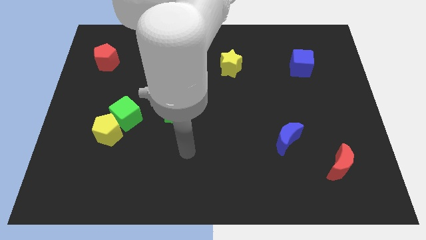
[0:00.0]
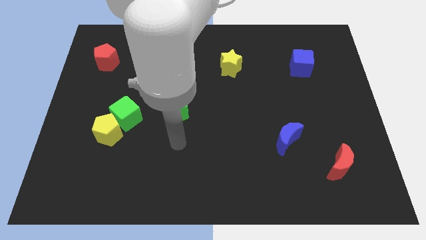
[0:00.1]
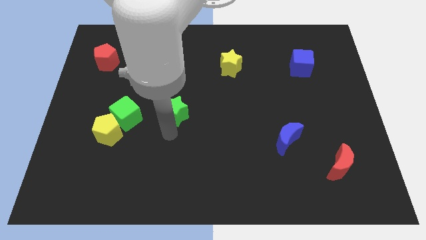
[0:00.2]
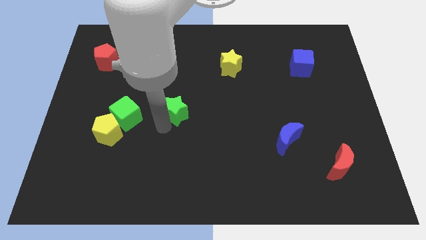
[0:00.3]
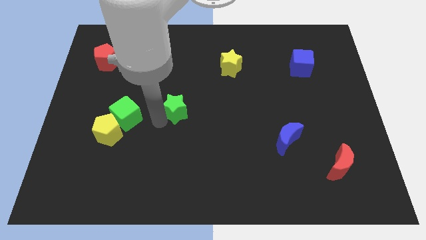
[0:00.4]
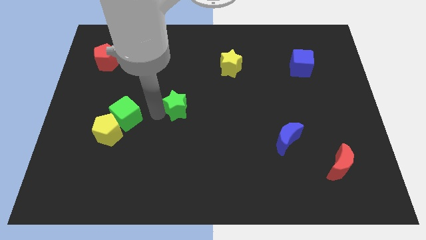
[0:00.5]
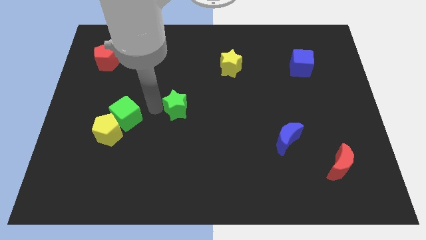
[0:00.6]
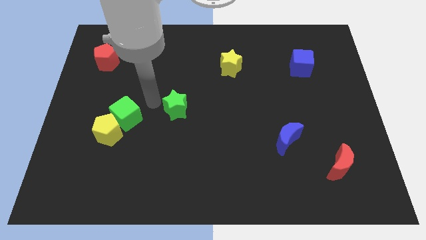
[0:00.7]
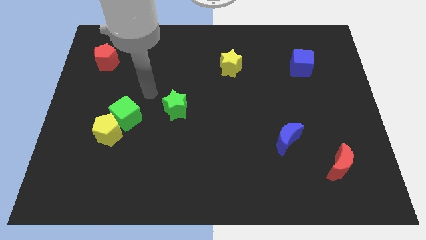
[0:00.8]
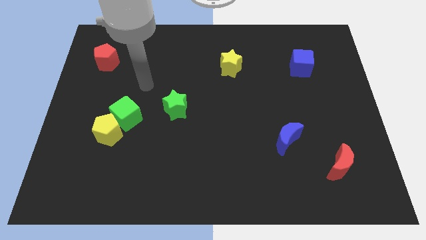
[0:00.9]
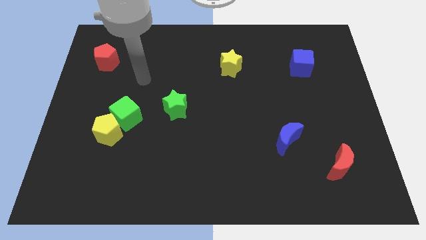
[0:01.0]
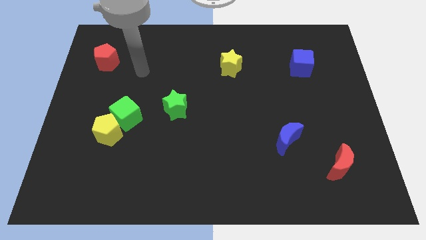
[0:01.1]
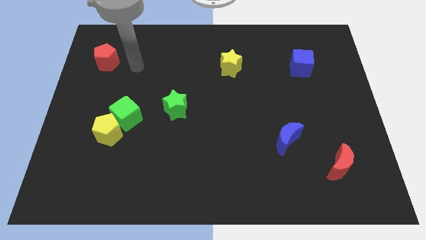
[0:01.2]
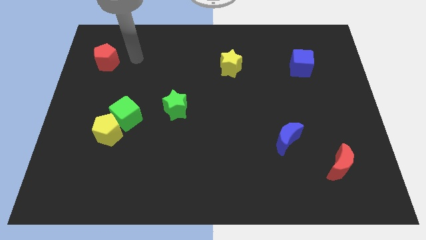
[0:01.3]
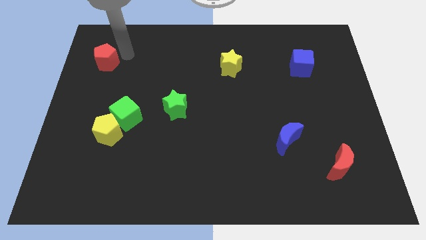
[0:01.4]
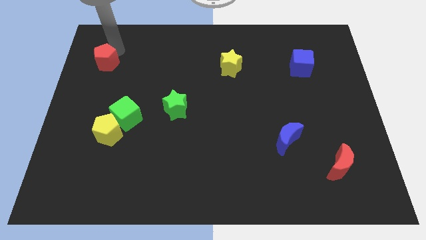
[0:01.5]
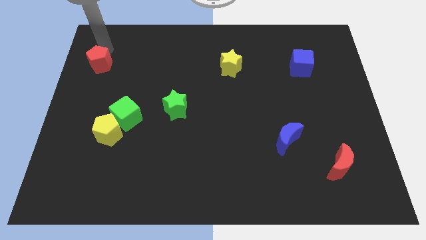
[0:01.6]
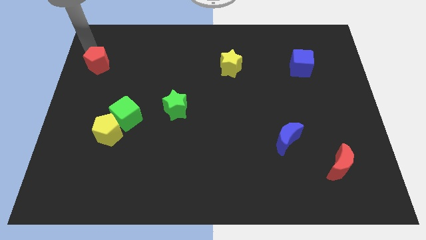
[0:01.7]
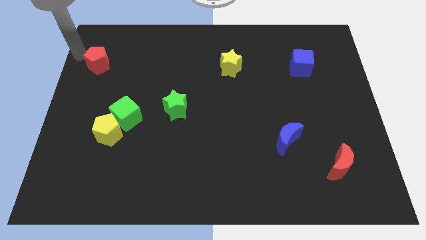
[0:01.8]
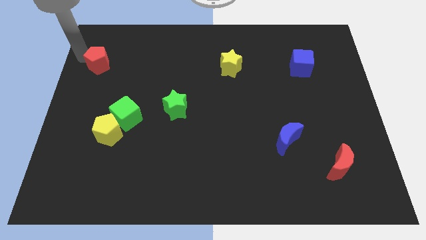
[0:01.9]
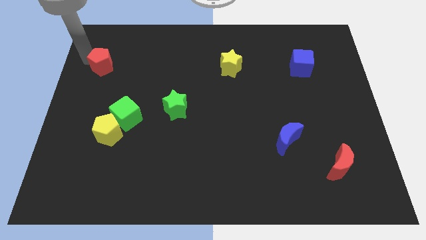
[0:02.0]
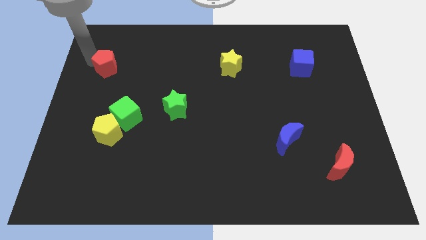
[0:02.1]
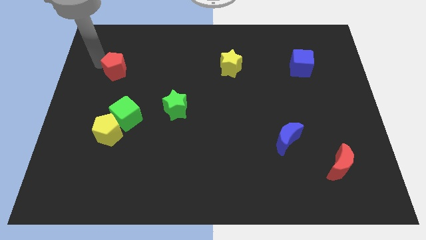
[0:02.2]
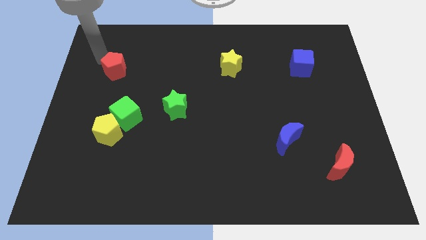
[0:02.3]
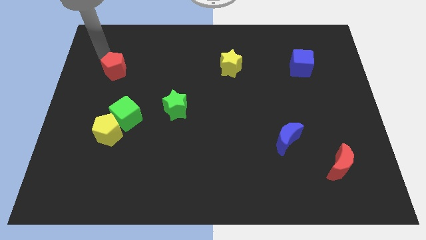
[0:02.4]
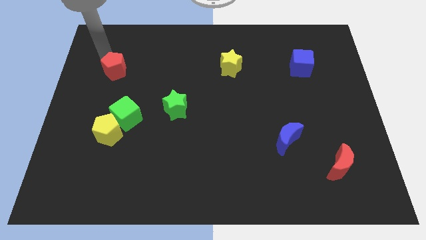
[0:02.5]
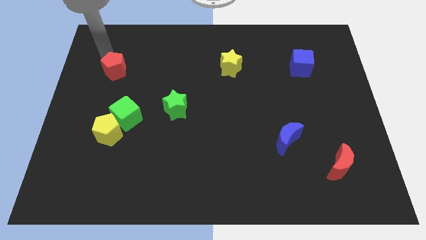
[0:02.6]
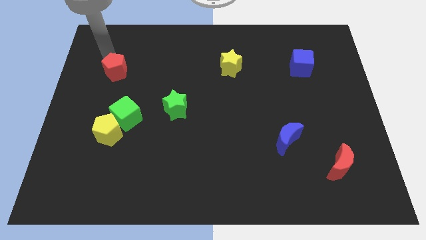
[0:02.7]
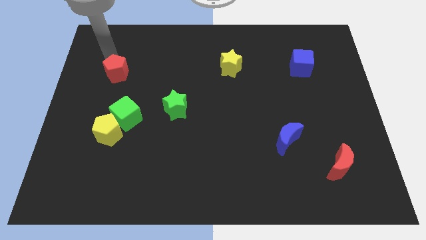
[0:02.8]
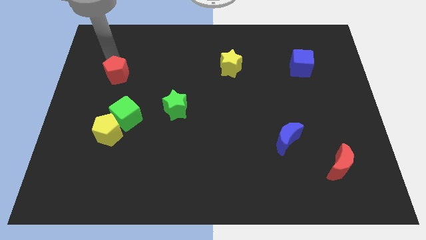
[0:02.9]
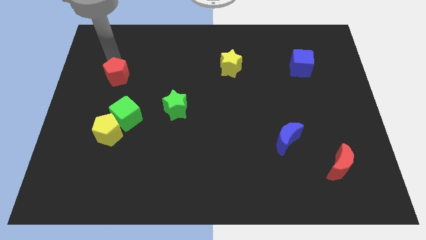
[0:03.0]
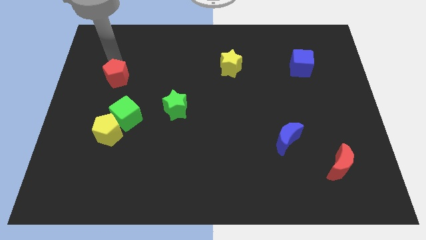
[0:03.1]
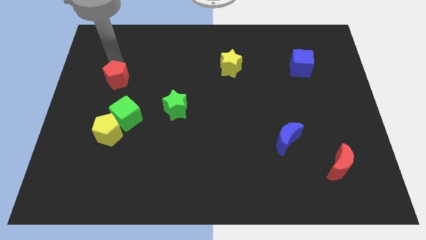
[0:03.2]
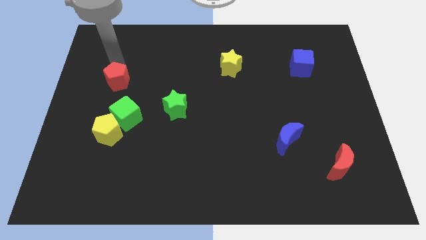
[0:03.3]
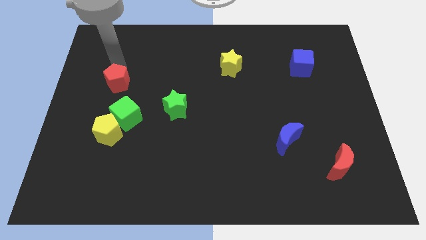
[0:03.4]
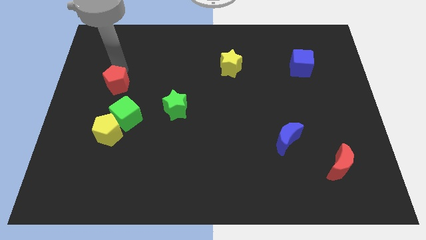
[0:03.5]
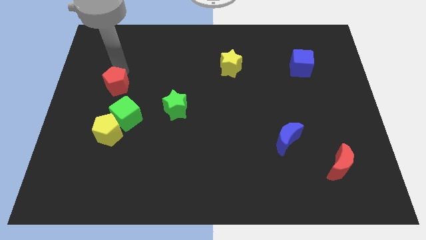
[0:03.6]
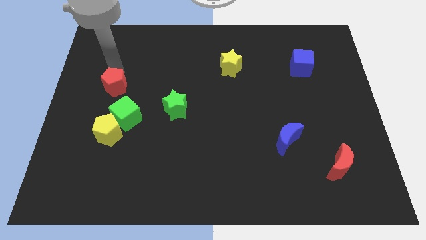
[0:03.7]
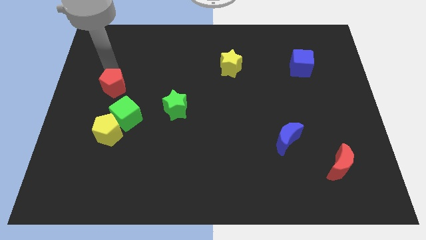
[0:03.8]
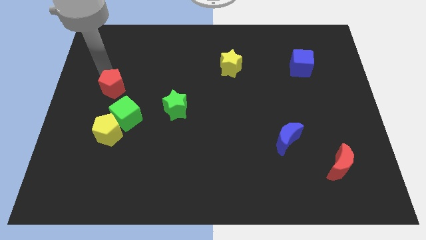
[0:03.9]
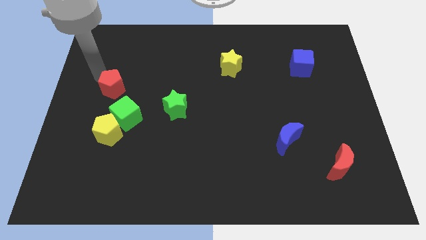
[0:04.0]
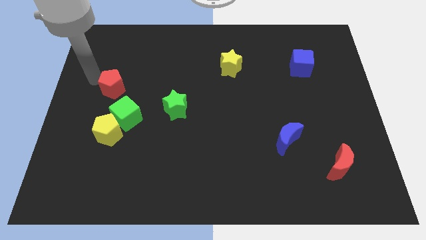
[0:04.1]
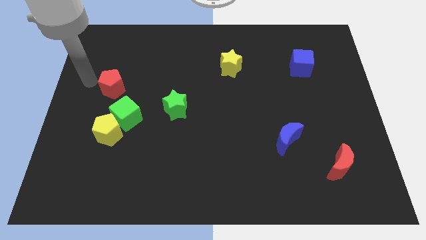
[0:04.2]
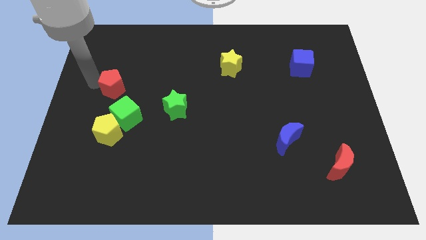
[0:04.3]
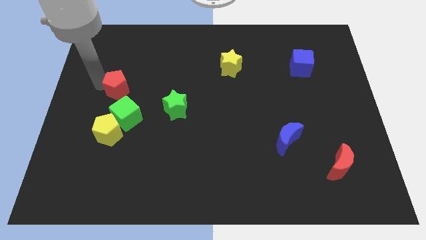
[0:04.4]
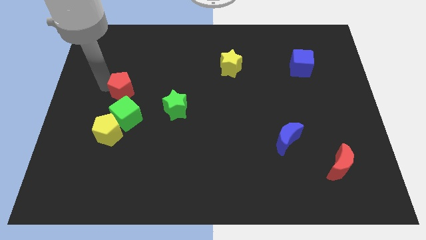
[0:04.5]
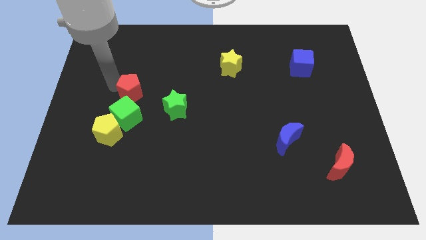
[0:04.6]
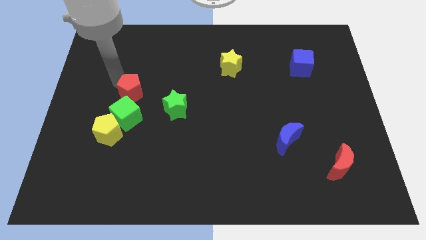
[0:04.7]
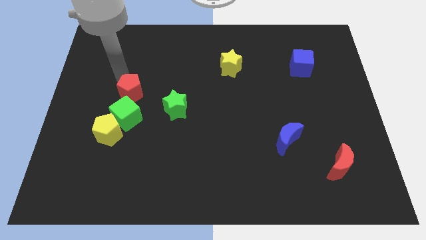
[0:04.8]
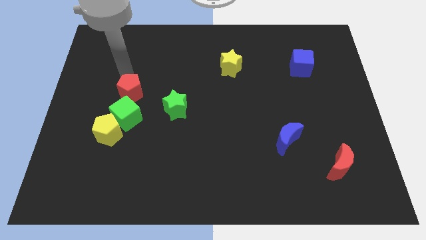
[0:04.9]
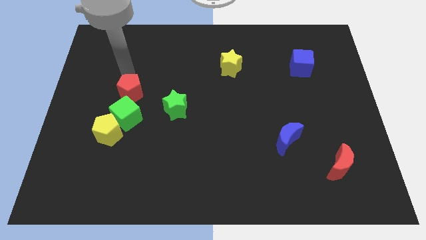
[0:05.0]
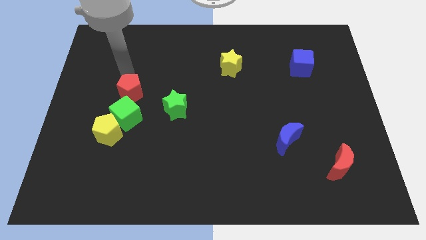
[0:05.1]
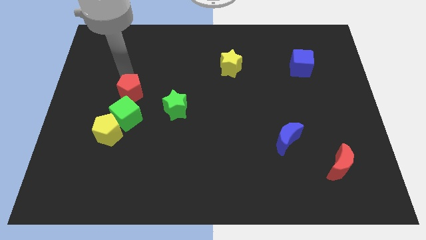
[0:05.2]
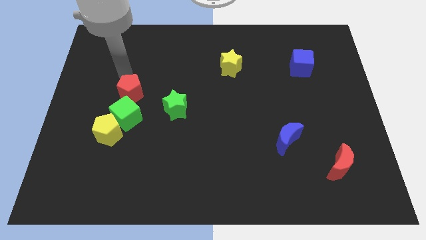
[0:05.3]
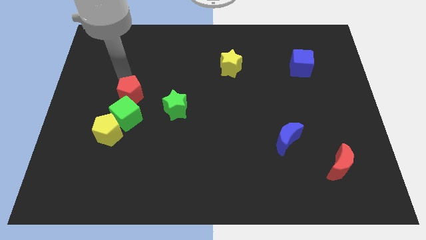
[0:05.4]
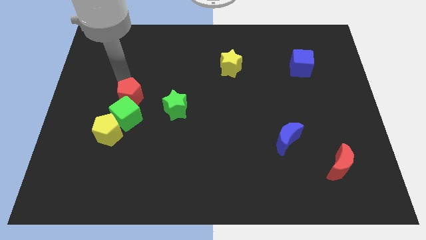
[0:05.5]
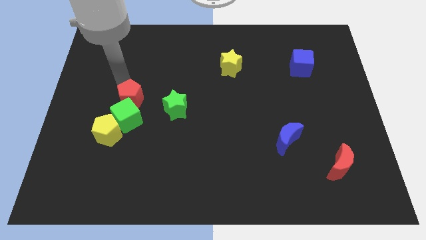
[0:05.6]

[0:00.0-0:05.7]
slide the red pentagon diagonally up and to the right of the yellow pentagon

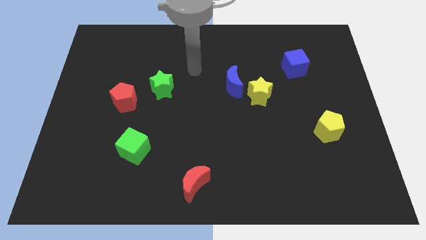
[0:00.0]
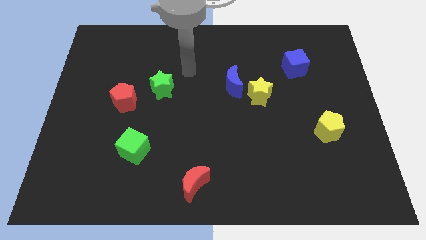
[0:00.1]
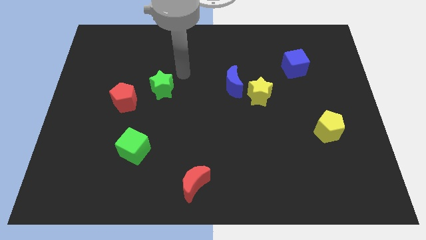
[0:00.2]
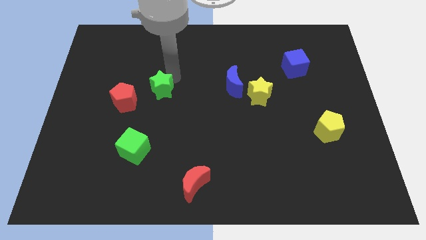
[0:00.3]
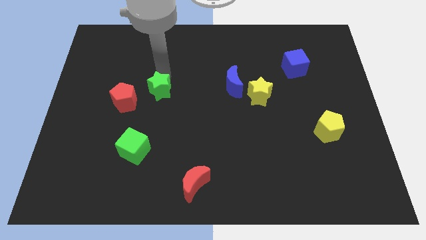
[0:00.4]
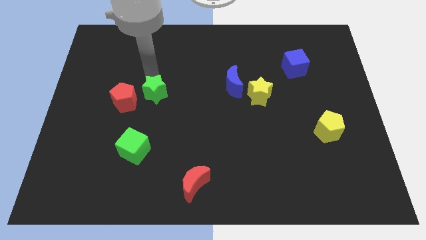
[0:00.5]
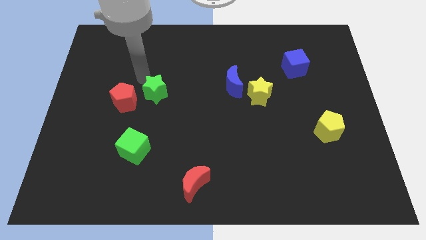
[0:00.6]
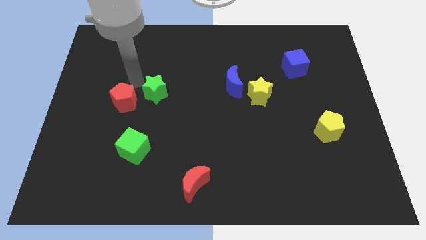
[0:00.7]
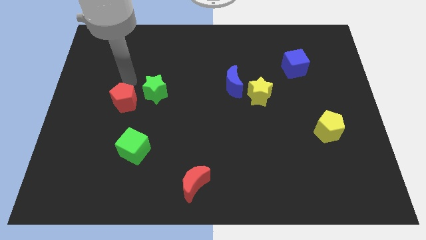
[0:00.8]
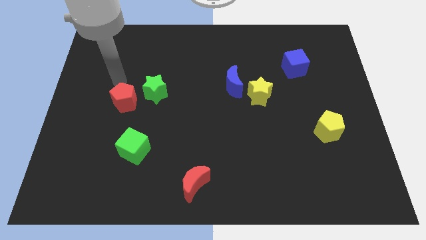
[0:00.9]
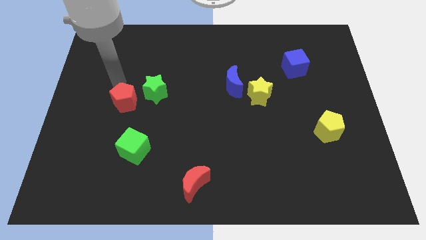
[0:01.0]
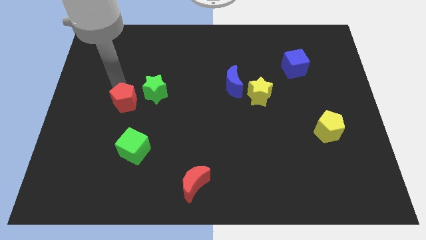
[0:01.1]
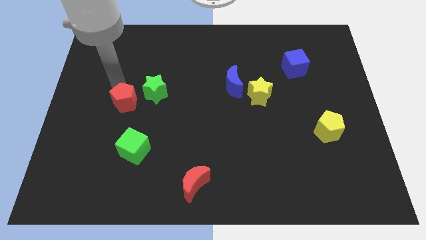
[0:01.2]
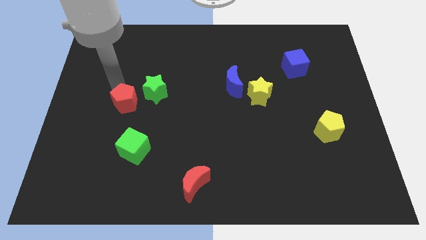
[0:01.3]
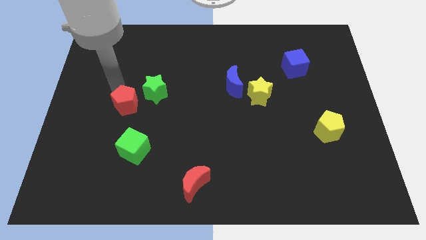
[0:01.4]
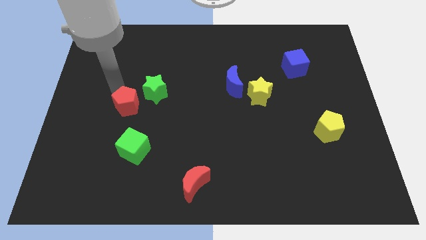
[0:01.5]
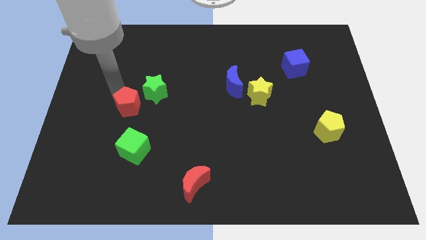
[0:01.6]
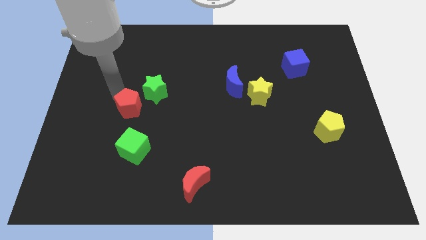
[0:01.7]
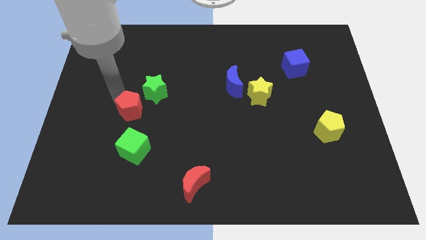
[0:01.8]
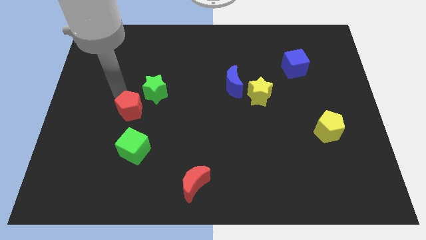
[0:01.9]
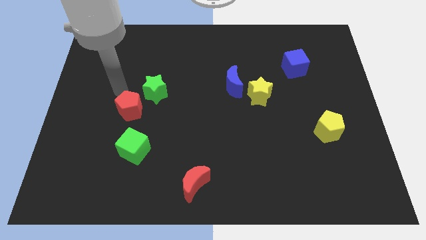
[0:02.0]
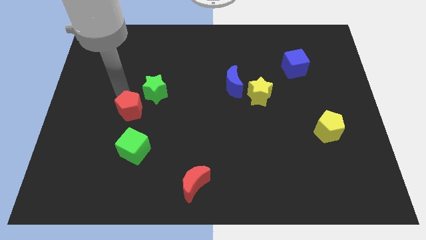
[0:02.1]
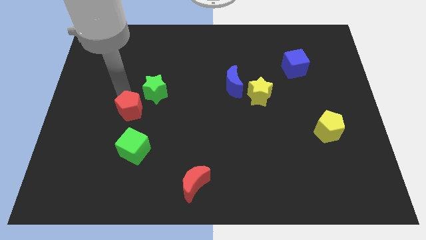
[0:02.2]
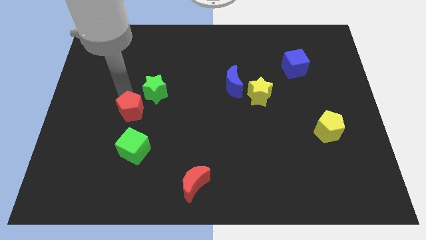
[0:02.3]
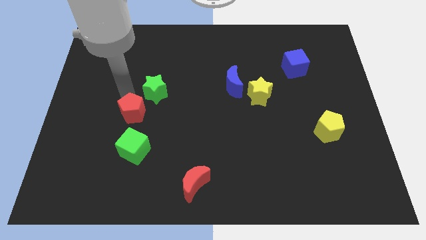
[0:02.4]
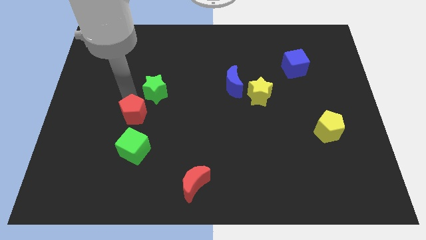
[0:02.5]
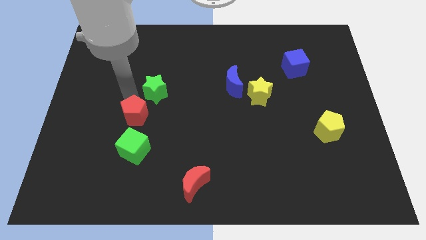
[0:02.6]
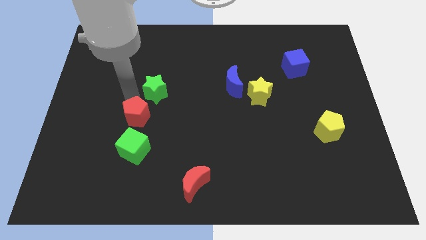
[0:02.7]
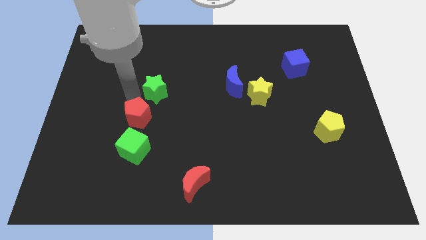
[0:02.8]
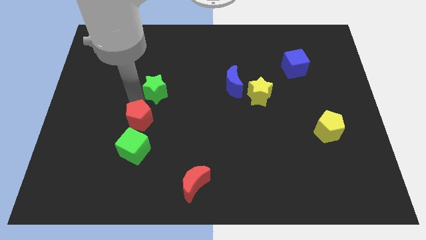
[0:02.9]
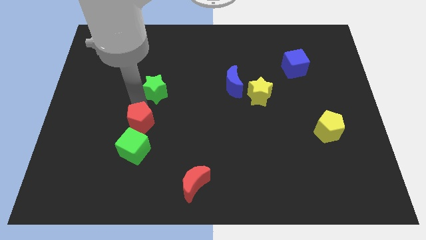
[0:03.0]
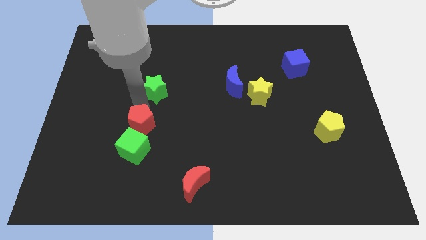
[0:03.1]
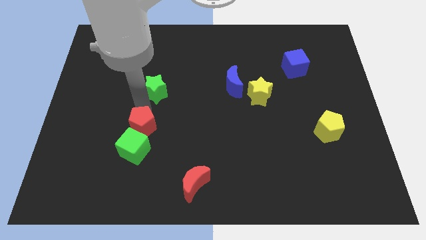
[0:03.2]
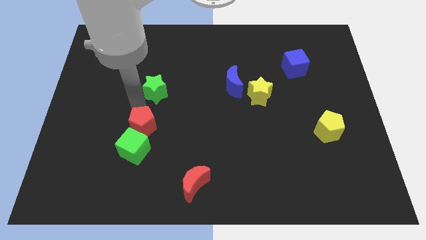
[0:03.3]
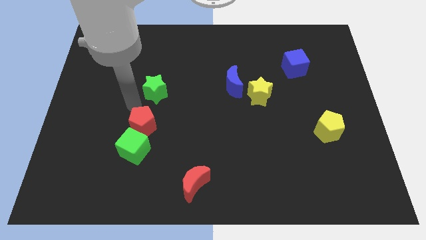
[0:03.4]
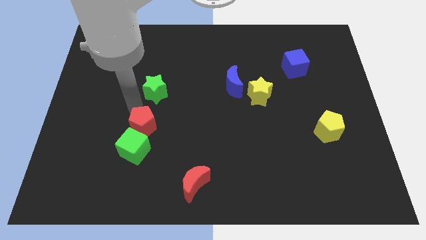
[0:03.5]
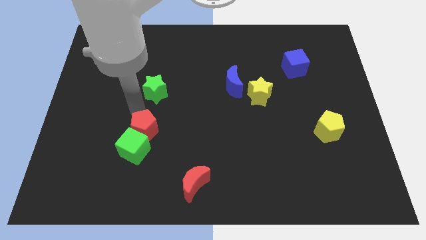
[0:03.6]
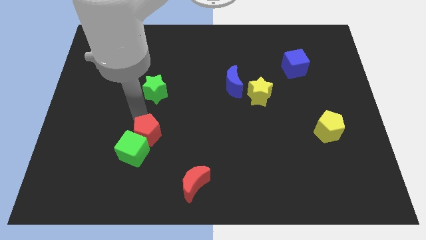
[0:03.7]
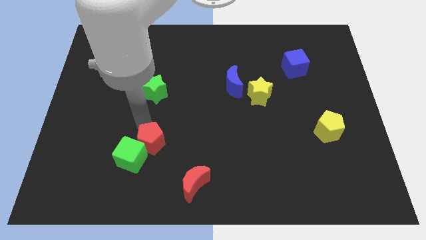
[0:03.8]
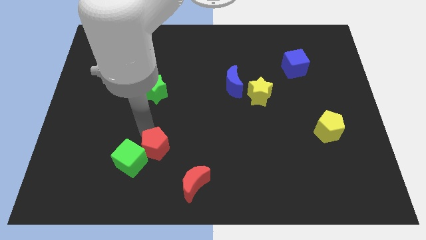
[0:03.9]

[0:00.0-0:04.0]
put the red pentagon to the top left of the red moon
